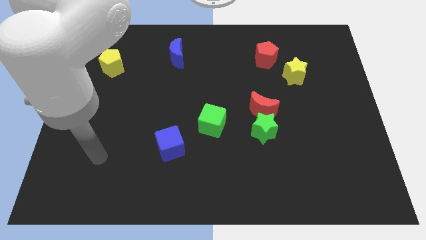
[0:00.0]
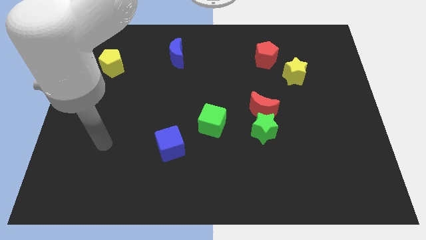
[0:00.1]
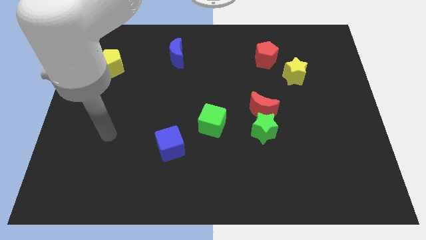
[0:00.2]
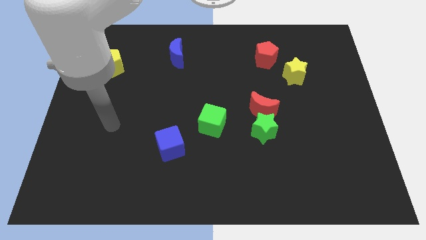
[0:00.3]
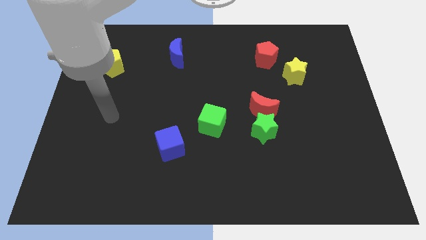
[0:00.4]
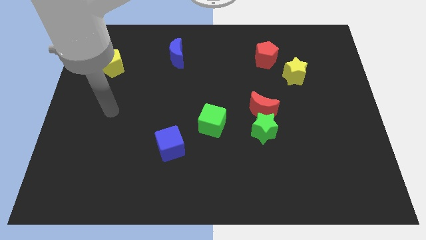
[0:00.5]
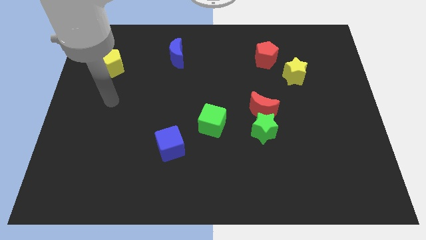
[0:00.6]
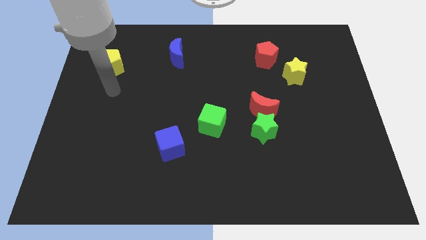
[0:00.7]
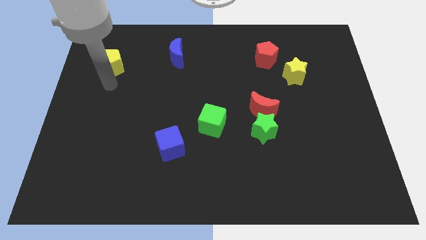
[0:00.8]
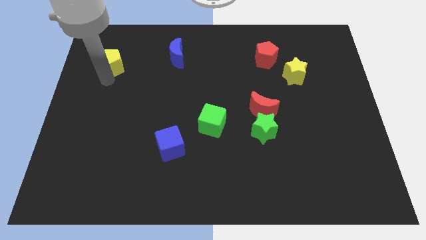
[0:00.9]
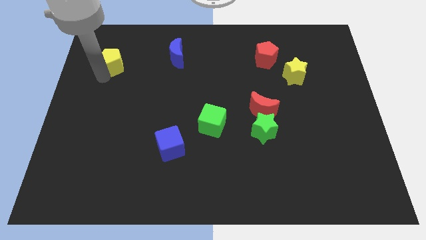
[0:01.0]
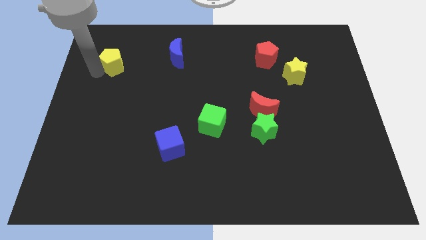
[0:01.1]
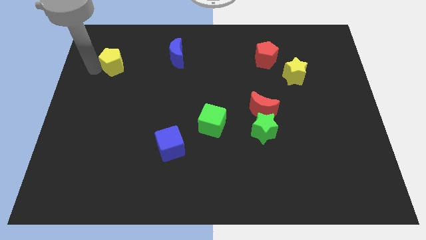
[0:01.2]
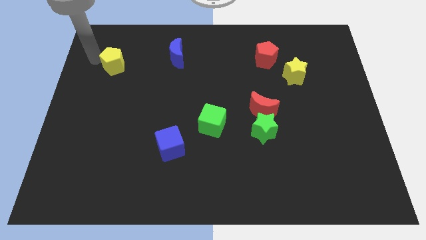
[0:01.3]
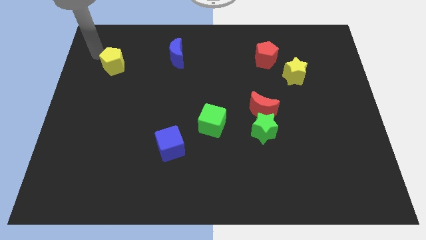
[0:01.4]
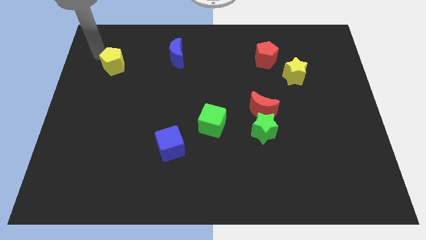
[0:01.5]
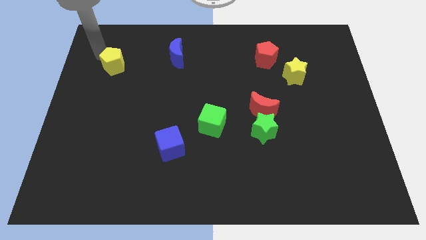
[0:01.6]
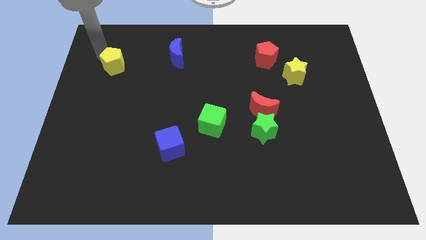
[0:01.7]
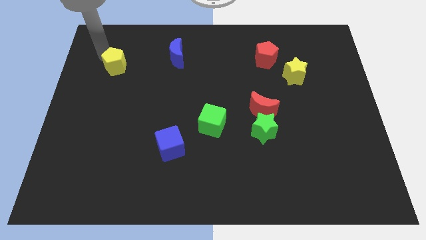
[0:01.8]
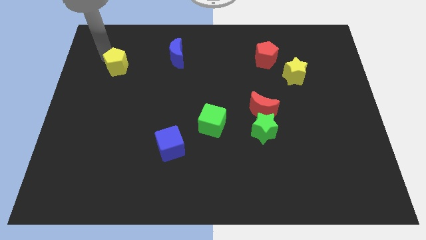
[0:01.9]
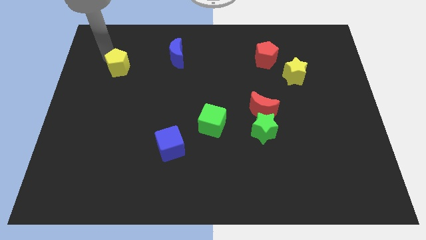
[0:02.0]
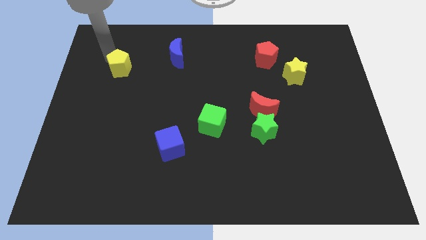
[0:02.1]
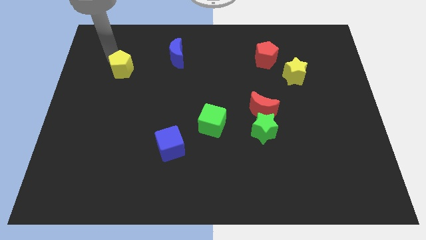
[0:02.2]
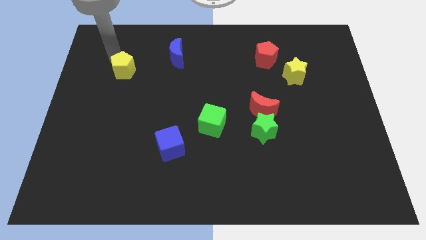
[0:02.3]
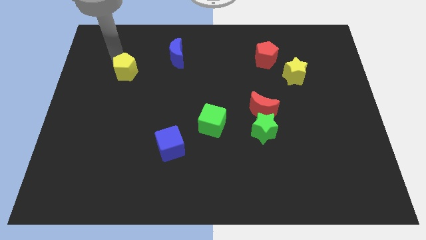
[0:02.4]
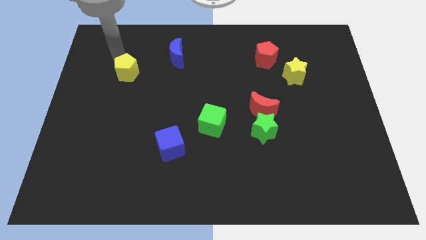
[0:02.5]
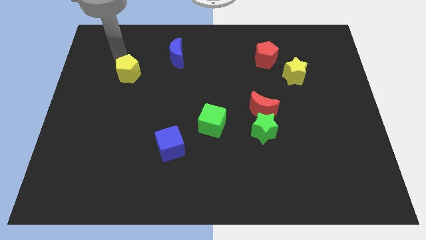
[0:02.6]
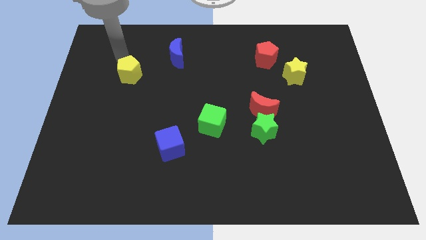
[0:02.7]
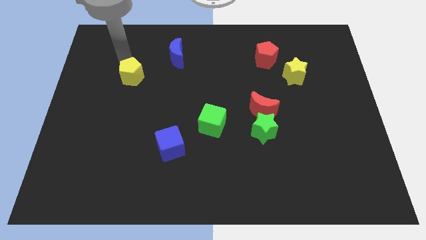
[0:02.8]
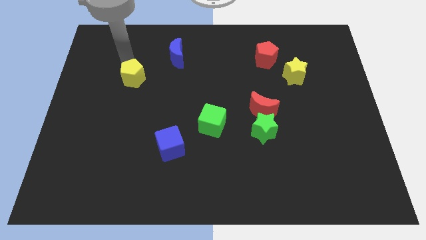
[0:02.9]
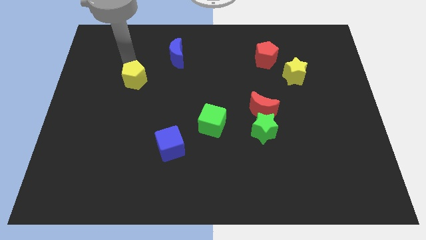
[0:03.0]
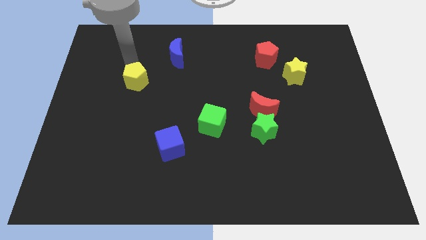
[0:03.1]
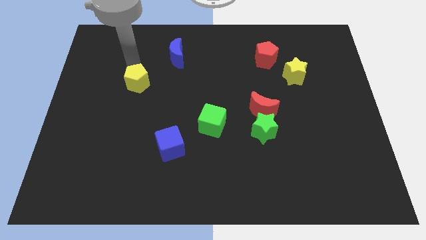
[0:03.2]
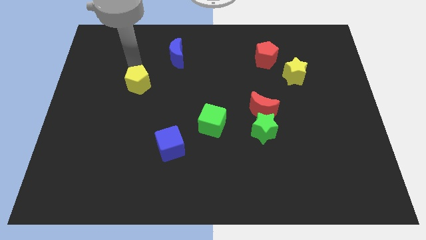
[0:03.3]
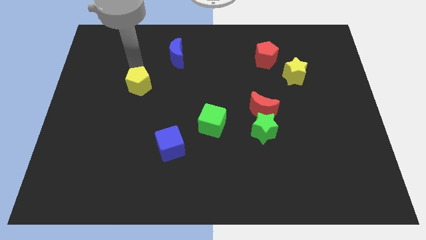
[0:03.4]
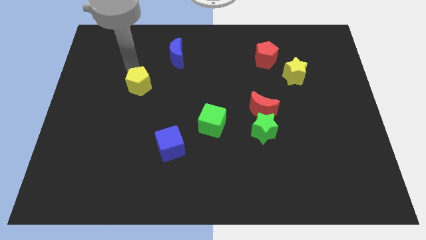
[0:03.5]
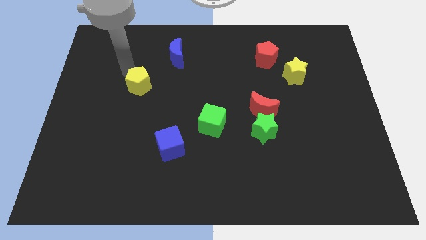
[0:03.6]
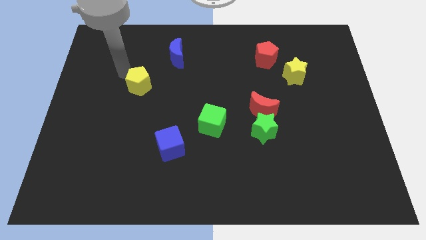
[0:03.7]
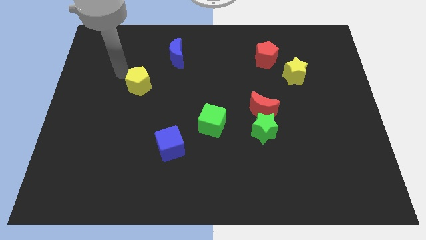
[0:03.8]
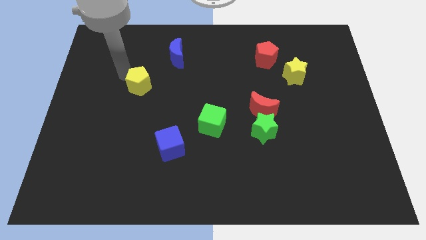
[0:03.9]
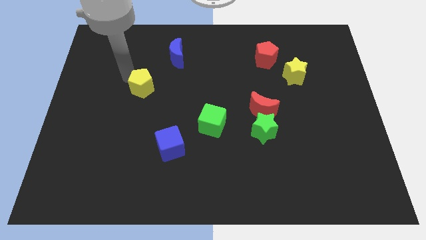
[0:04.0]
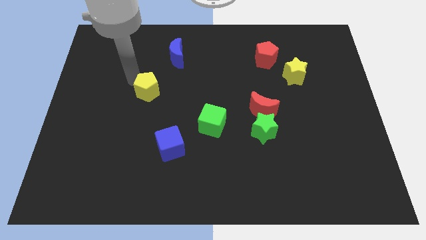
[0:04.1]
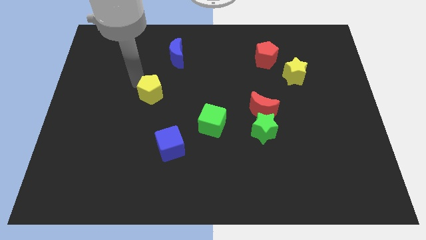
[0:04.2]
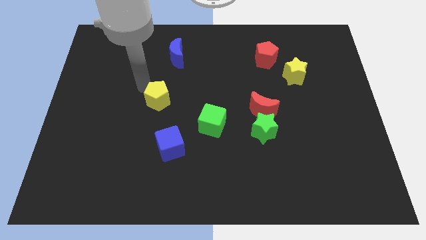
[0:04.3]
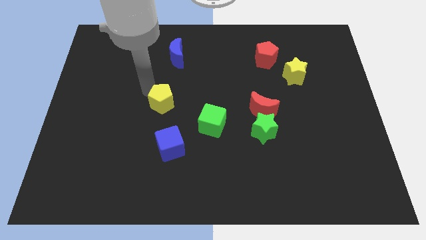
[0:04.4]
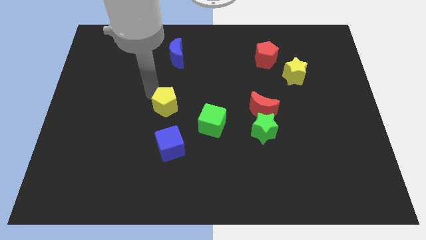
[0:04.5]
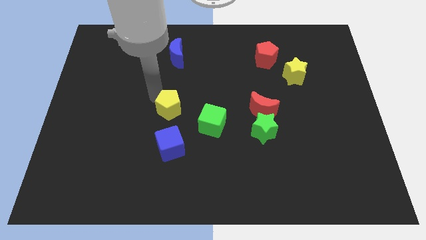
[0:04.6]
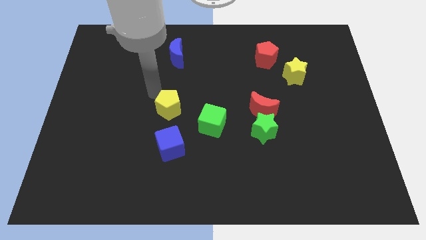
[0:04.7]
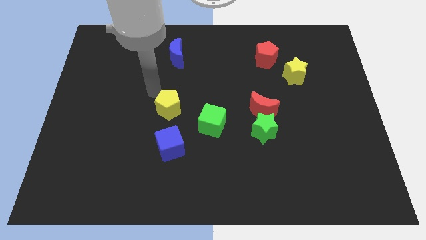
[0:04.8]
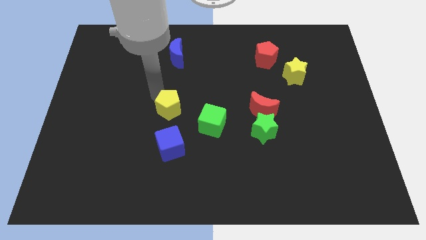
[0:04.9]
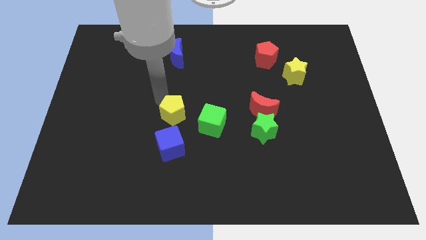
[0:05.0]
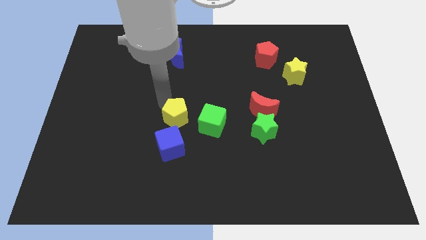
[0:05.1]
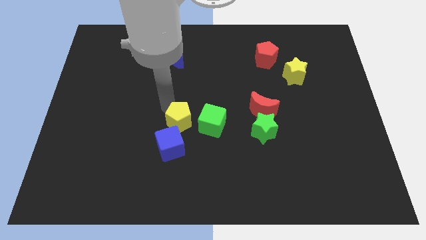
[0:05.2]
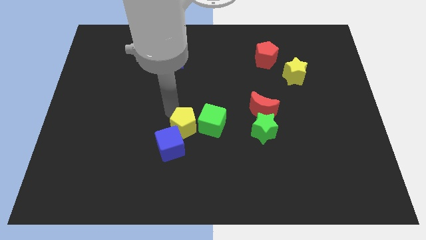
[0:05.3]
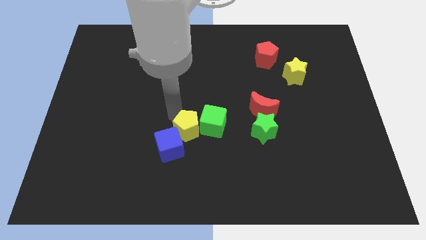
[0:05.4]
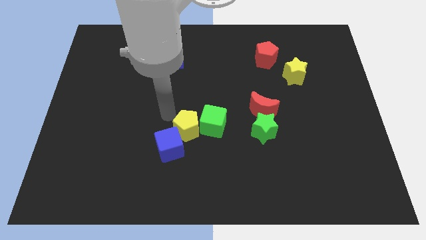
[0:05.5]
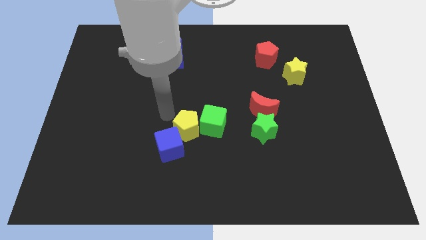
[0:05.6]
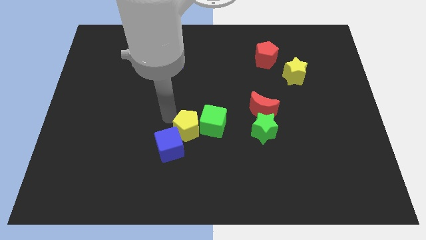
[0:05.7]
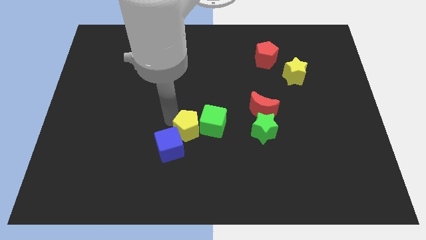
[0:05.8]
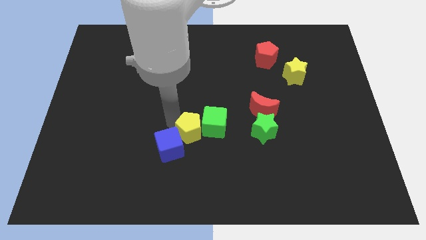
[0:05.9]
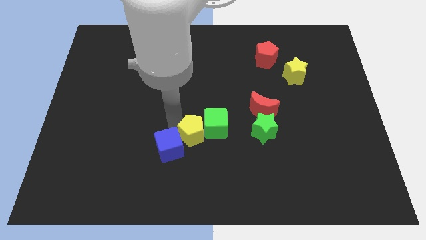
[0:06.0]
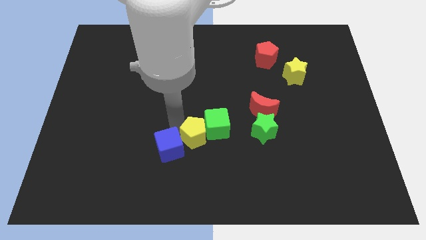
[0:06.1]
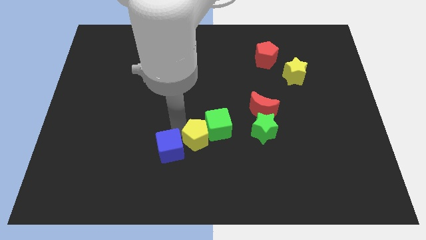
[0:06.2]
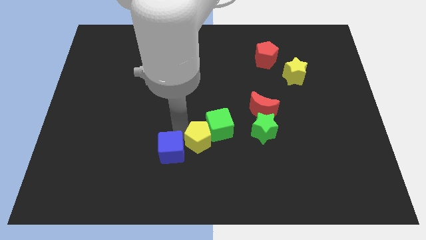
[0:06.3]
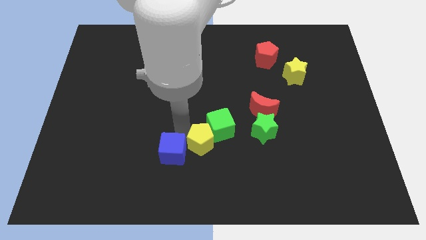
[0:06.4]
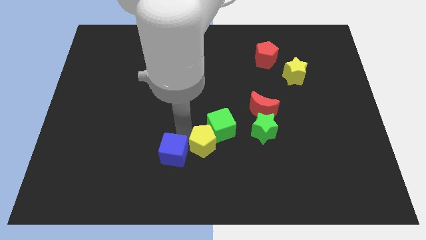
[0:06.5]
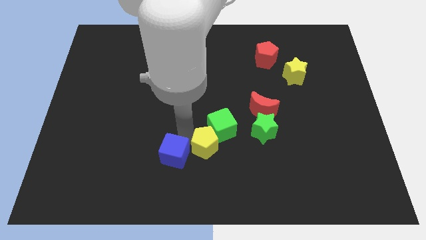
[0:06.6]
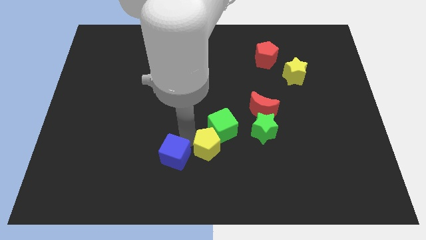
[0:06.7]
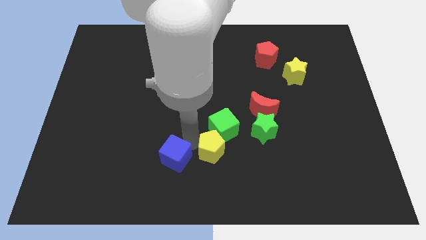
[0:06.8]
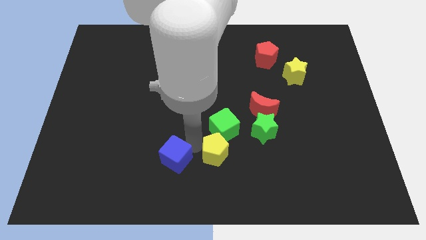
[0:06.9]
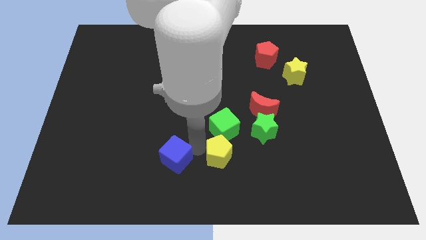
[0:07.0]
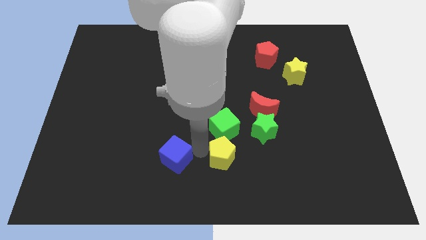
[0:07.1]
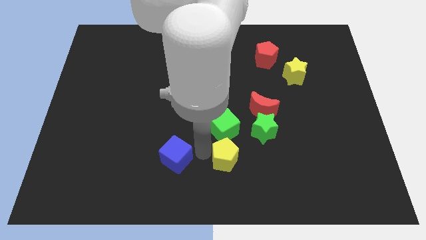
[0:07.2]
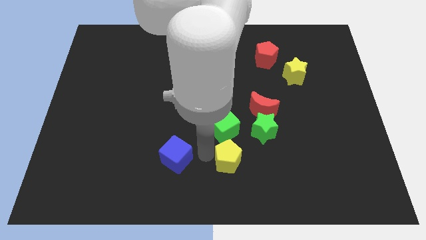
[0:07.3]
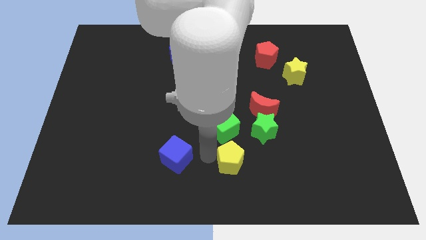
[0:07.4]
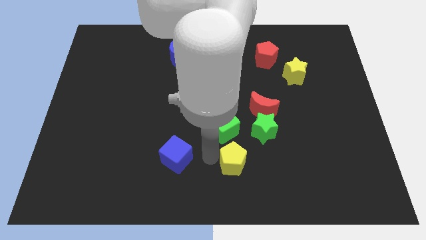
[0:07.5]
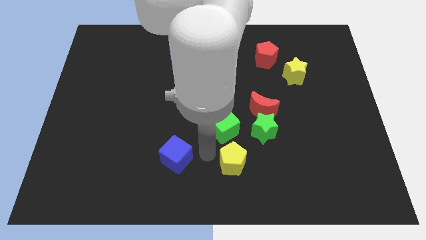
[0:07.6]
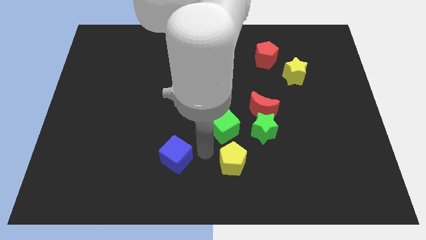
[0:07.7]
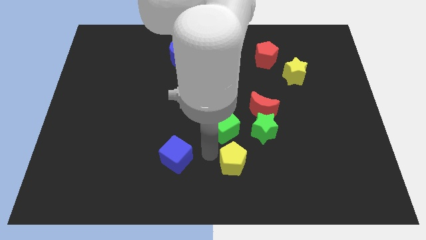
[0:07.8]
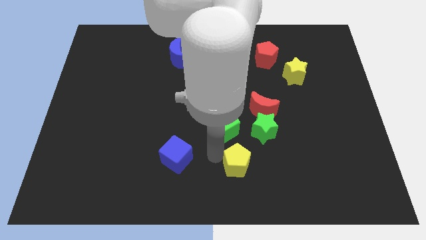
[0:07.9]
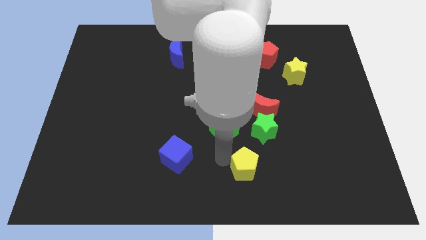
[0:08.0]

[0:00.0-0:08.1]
slide the yellow pentagon to the bottom of the green star
